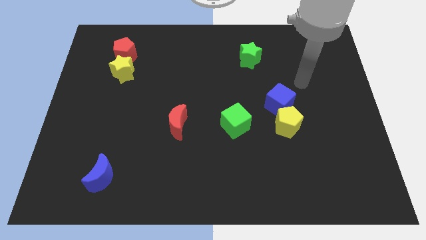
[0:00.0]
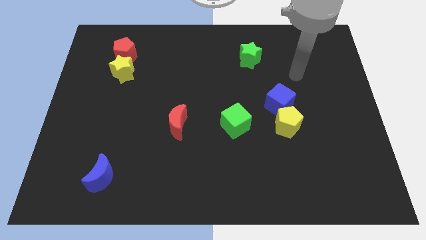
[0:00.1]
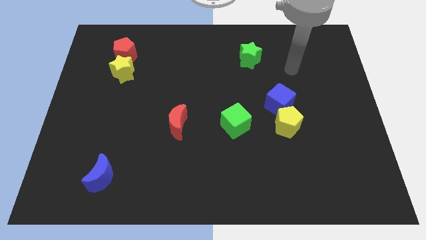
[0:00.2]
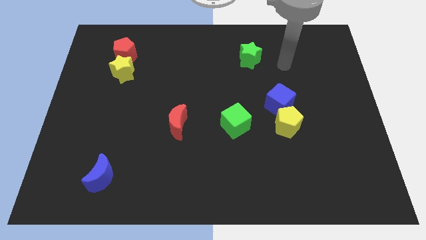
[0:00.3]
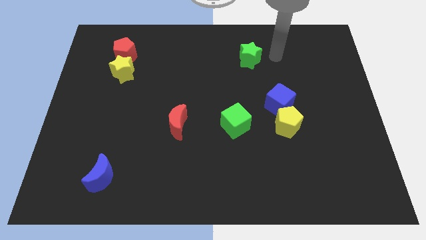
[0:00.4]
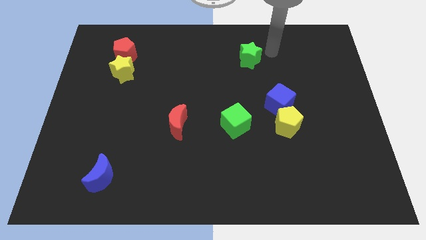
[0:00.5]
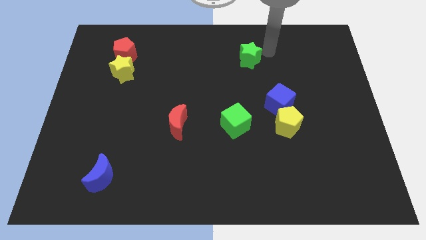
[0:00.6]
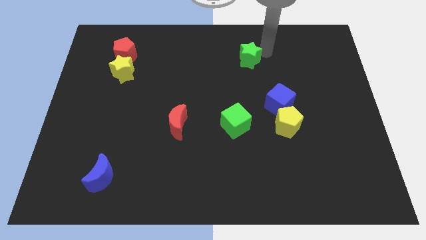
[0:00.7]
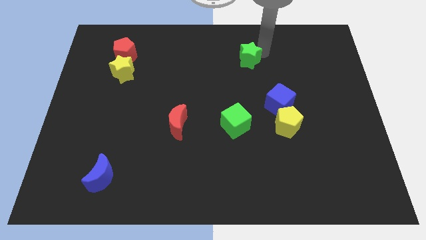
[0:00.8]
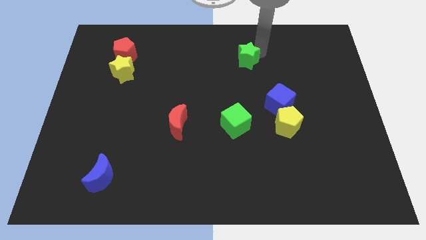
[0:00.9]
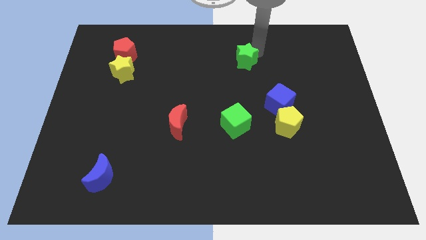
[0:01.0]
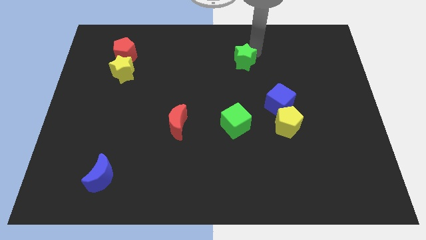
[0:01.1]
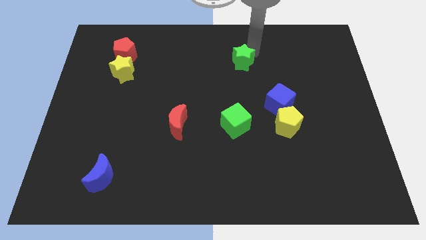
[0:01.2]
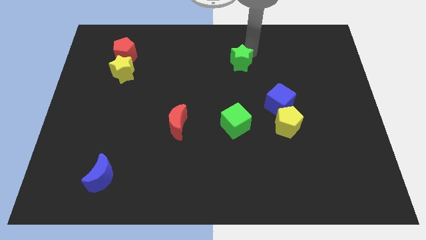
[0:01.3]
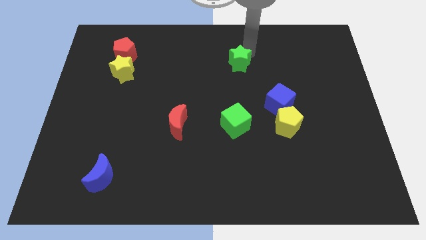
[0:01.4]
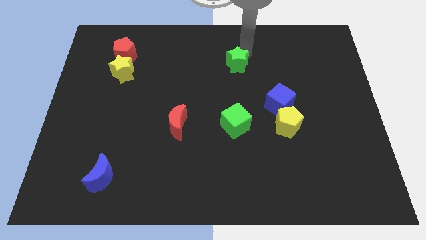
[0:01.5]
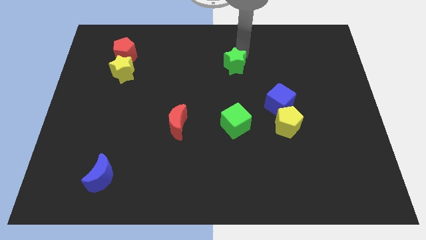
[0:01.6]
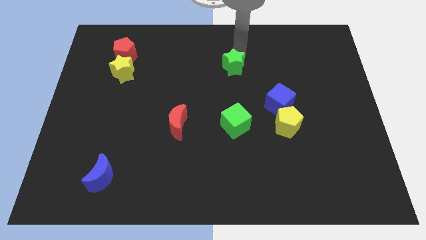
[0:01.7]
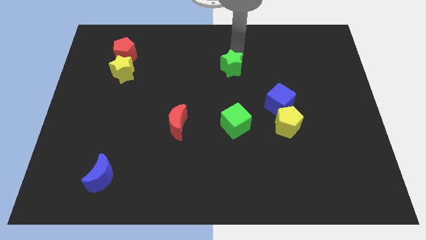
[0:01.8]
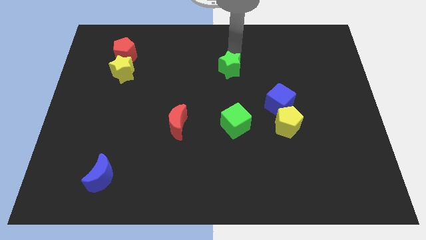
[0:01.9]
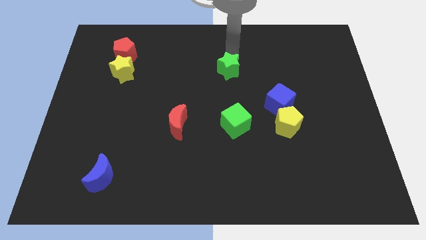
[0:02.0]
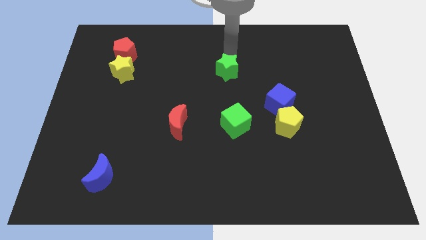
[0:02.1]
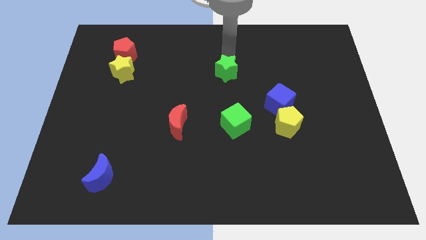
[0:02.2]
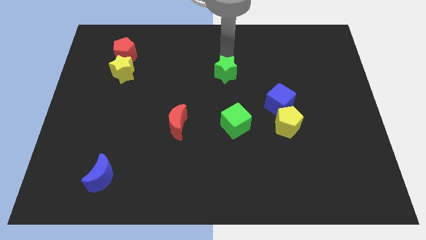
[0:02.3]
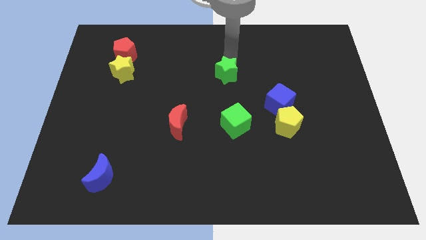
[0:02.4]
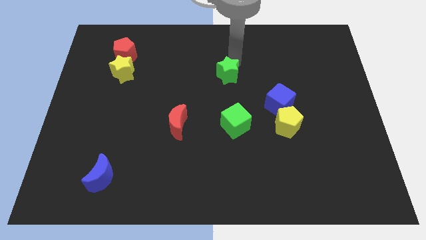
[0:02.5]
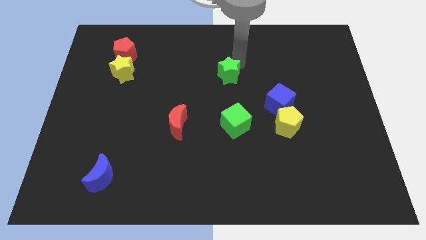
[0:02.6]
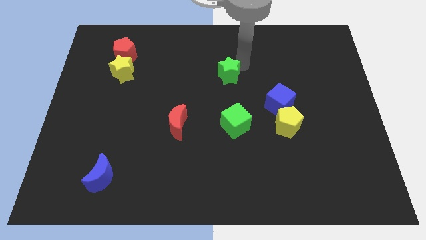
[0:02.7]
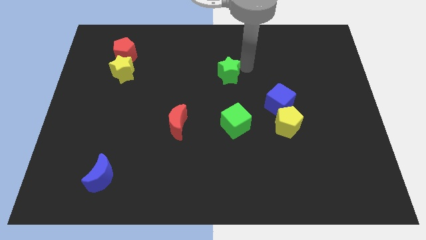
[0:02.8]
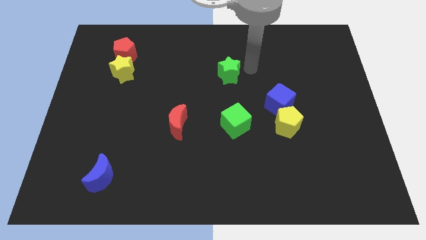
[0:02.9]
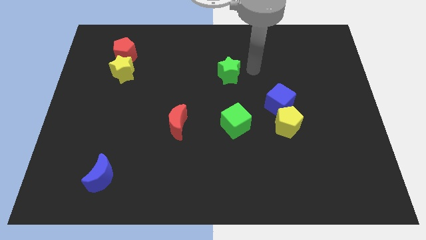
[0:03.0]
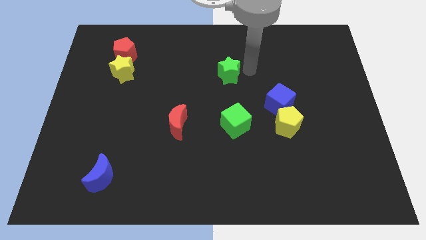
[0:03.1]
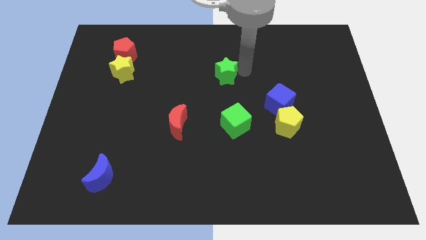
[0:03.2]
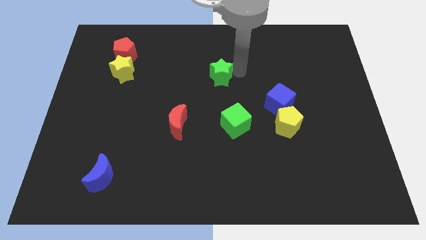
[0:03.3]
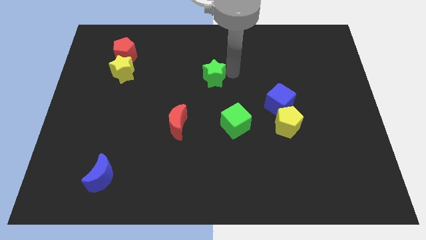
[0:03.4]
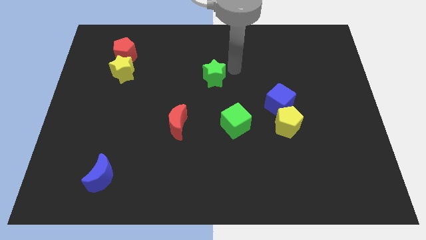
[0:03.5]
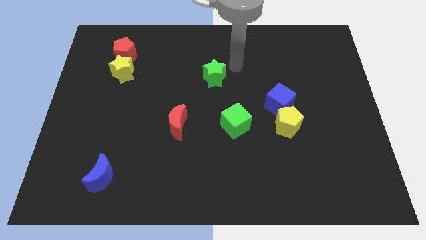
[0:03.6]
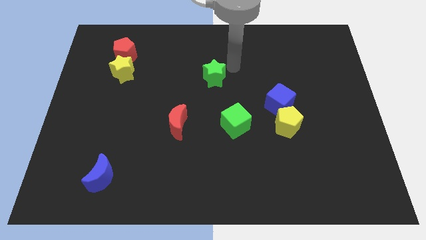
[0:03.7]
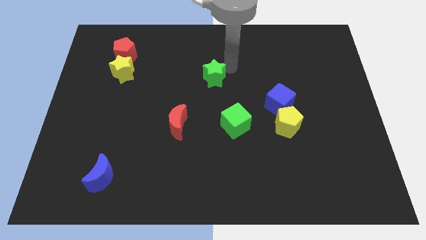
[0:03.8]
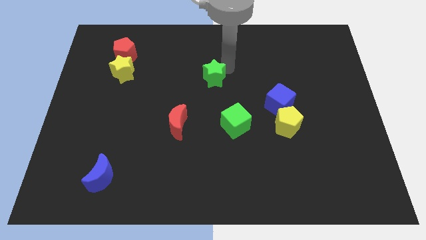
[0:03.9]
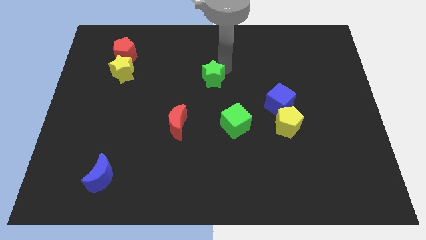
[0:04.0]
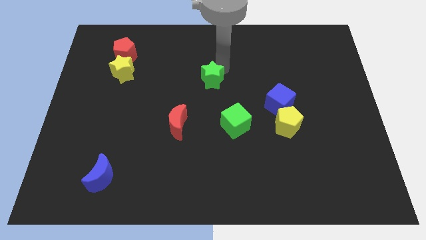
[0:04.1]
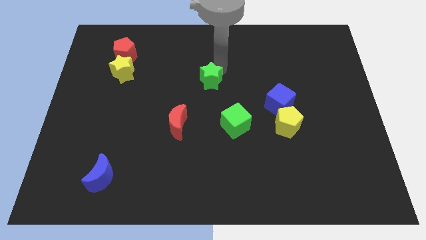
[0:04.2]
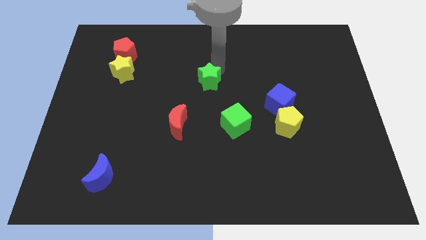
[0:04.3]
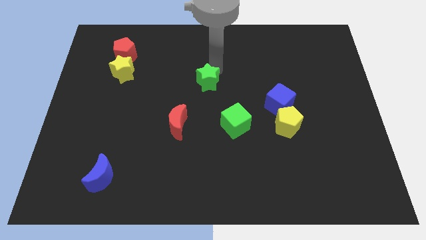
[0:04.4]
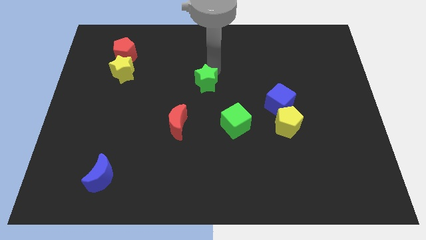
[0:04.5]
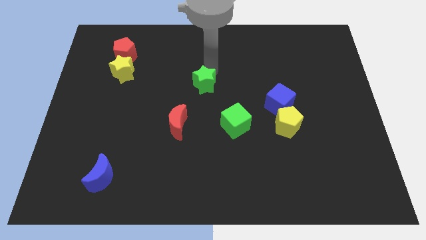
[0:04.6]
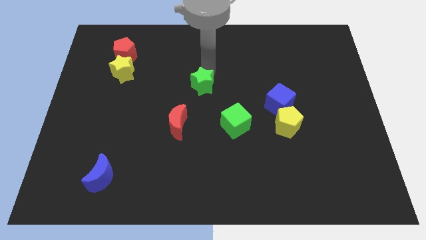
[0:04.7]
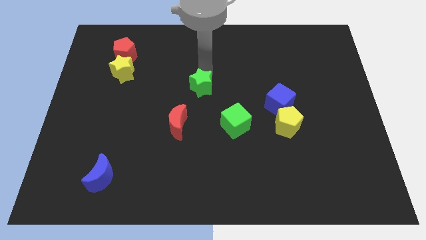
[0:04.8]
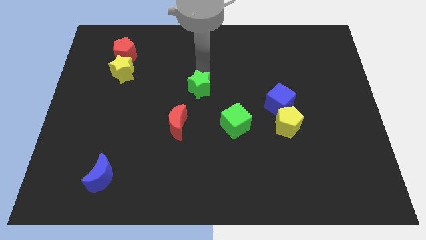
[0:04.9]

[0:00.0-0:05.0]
push the green star to the top side of the red moon

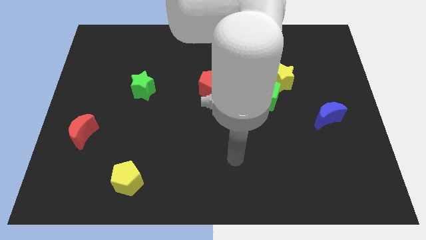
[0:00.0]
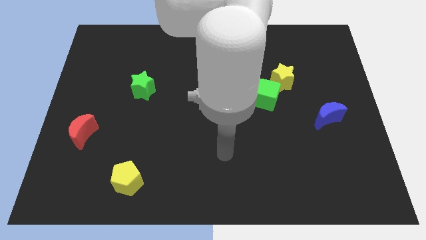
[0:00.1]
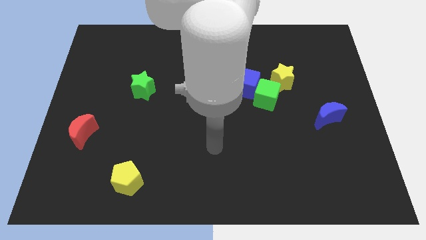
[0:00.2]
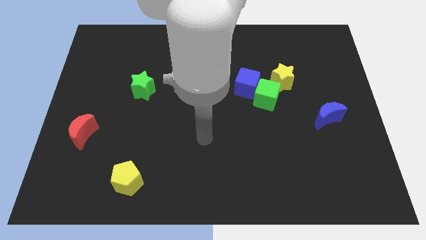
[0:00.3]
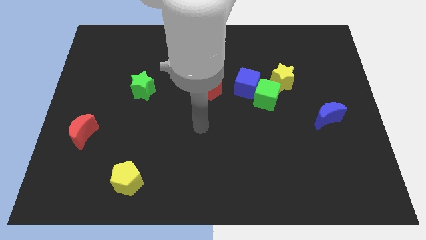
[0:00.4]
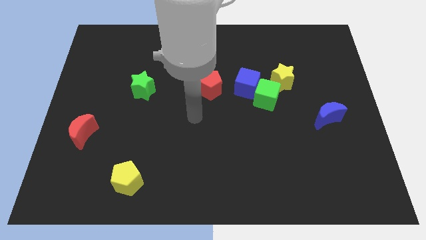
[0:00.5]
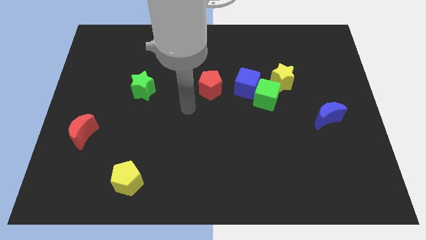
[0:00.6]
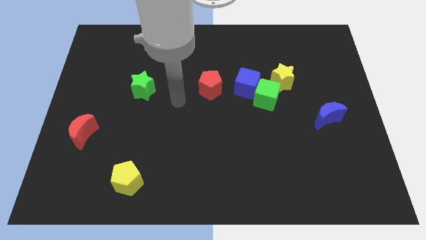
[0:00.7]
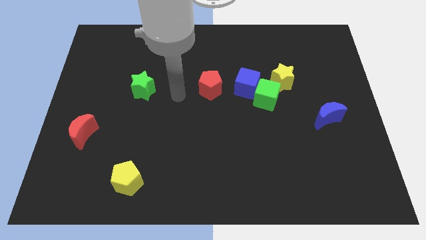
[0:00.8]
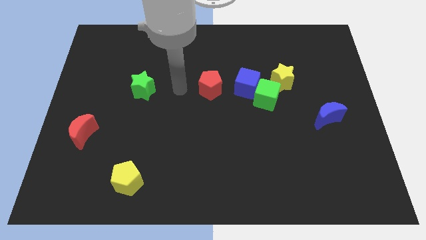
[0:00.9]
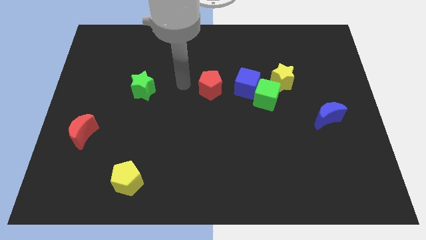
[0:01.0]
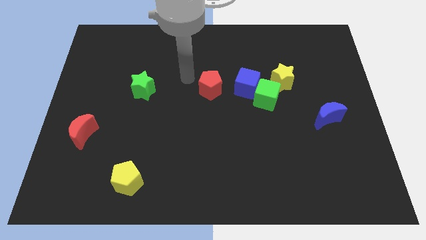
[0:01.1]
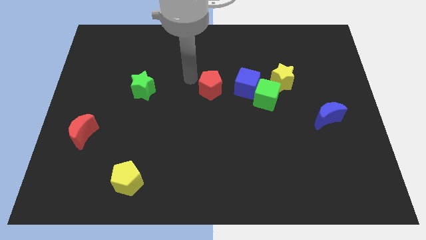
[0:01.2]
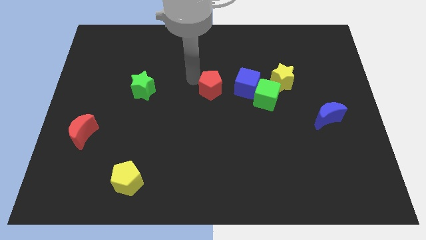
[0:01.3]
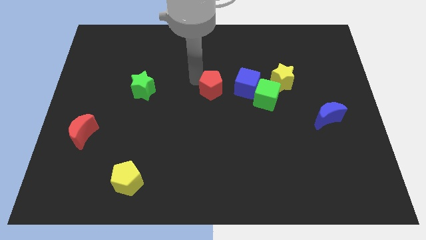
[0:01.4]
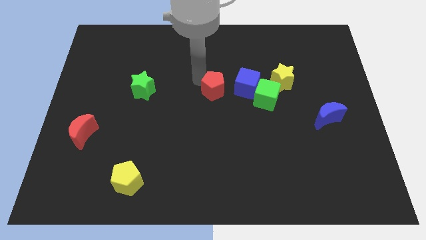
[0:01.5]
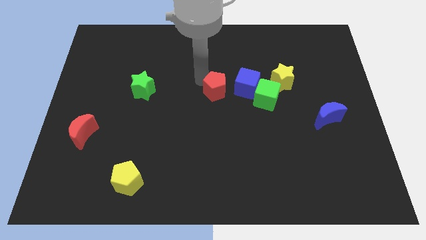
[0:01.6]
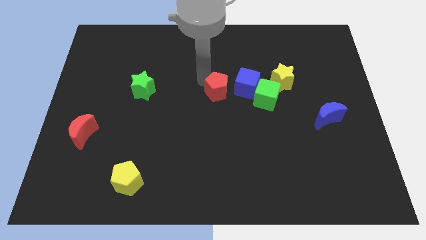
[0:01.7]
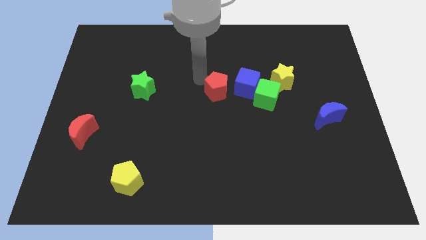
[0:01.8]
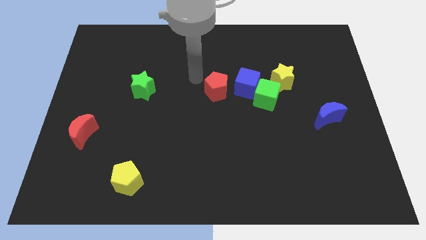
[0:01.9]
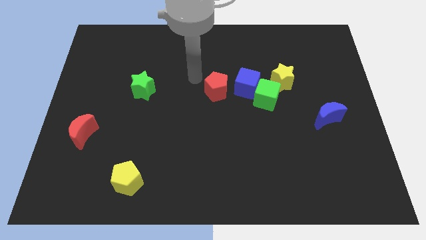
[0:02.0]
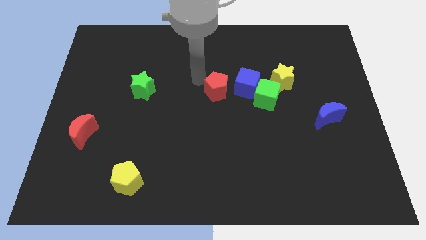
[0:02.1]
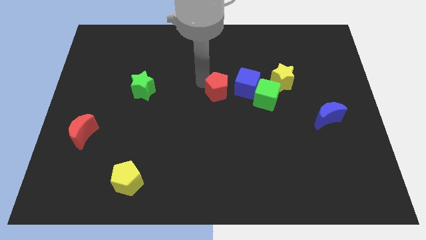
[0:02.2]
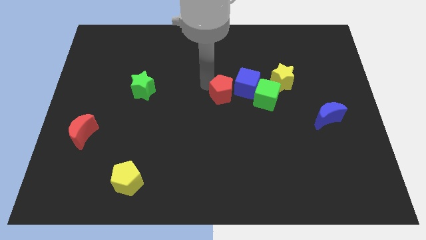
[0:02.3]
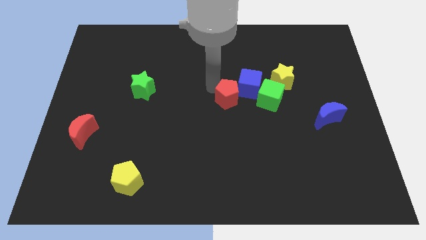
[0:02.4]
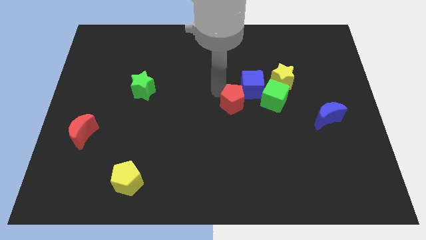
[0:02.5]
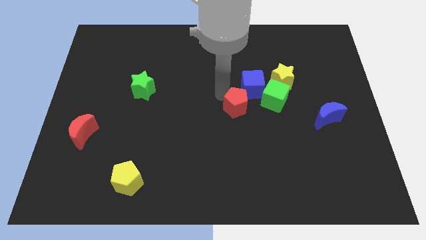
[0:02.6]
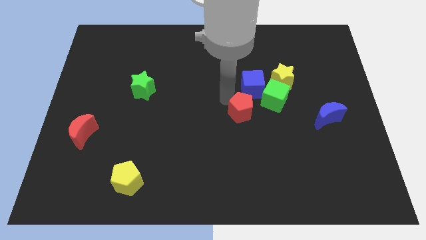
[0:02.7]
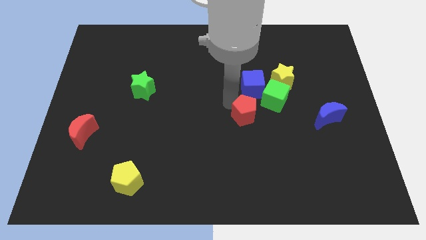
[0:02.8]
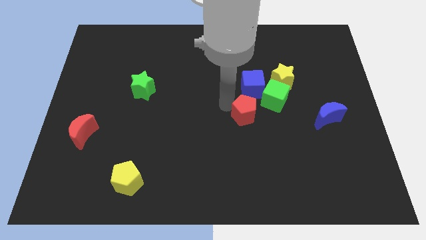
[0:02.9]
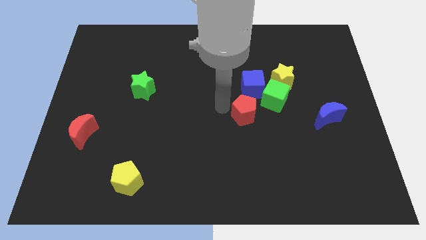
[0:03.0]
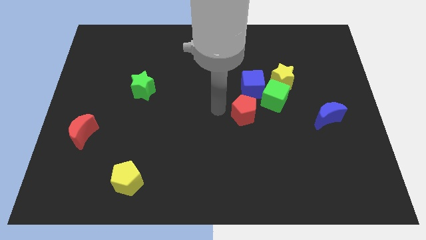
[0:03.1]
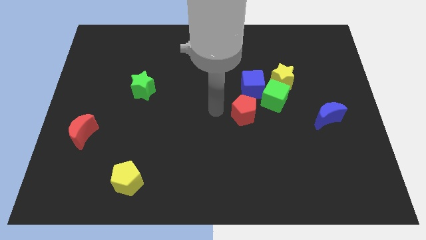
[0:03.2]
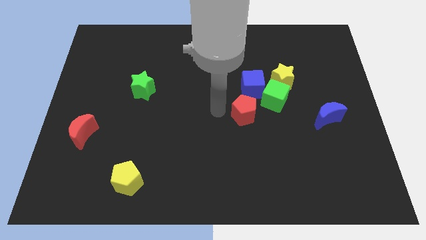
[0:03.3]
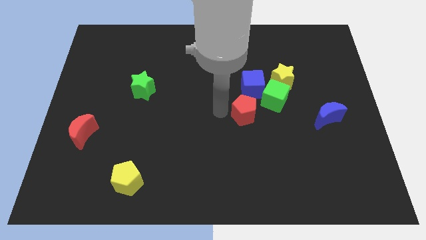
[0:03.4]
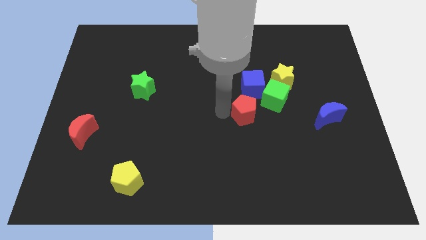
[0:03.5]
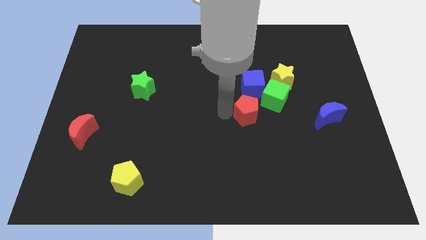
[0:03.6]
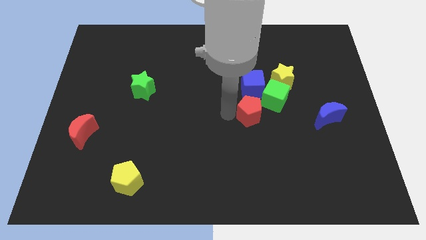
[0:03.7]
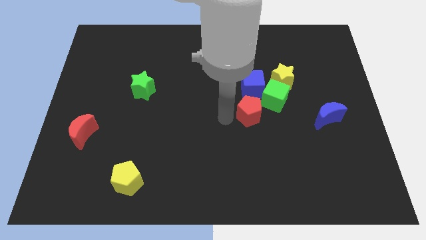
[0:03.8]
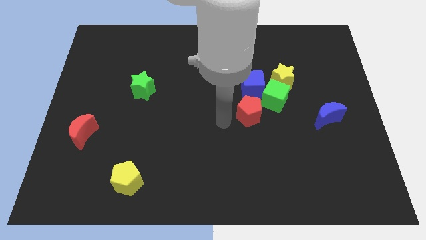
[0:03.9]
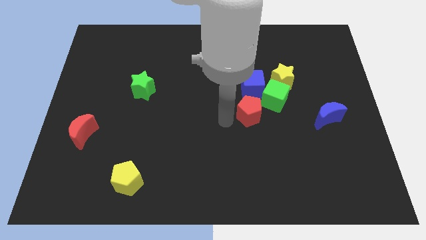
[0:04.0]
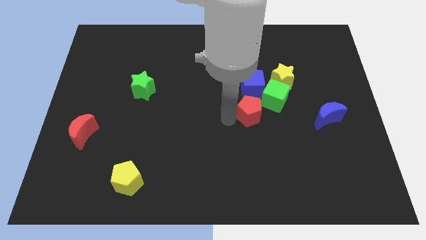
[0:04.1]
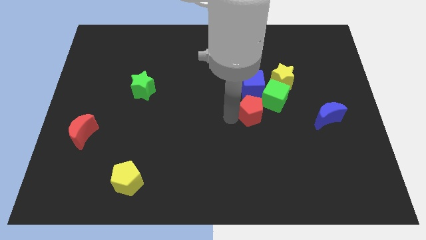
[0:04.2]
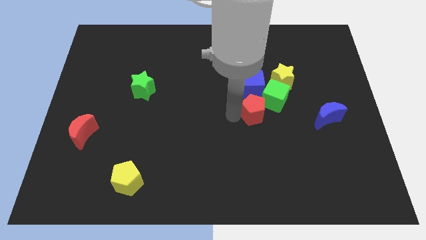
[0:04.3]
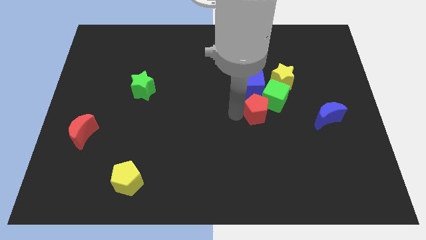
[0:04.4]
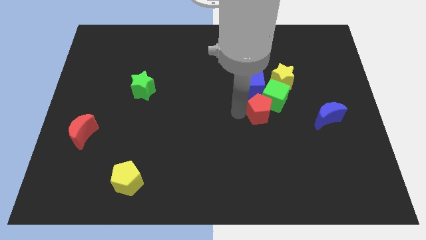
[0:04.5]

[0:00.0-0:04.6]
move the red pentagon to the bottom right of the blue cube
